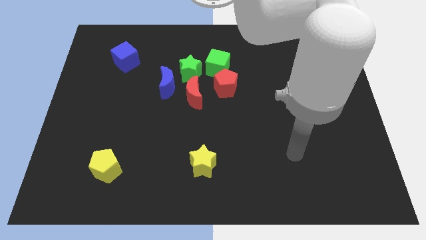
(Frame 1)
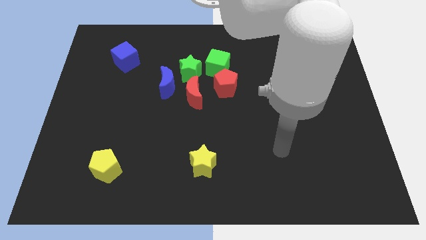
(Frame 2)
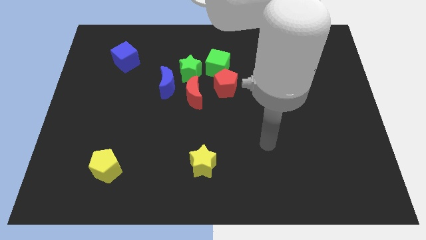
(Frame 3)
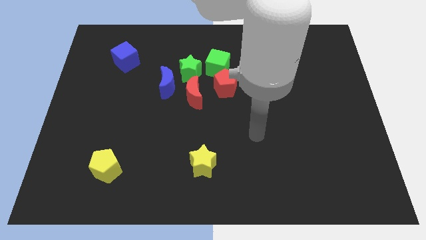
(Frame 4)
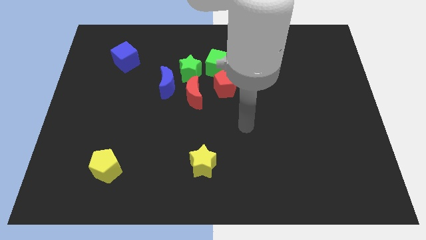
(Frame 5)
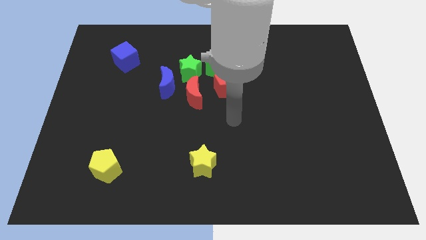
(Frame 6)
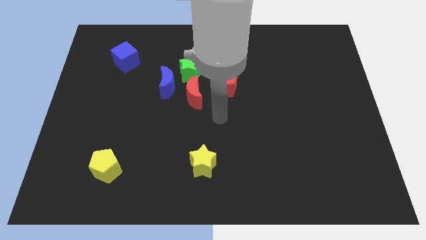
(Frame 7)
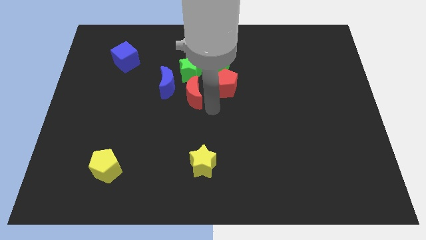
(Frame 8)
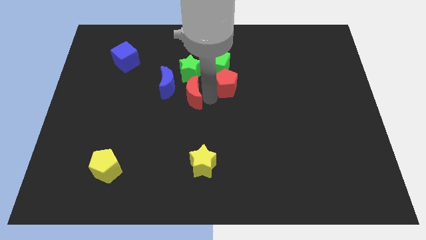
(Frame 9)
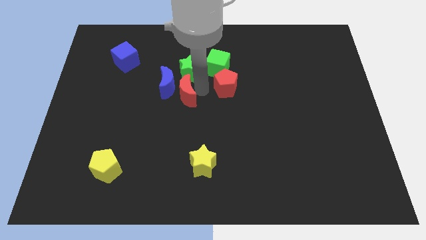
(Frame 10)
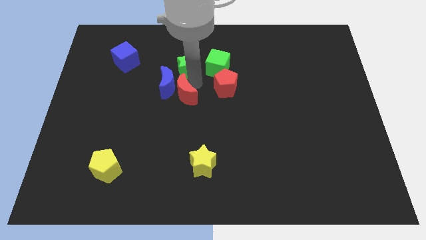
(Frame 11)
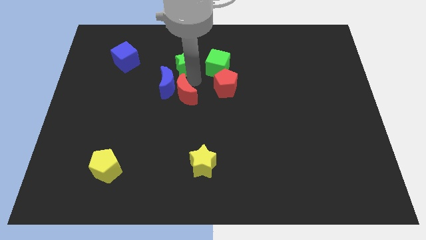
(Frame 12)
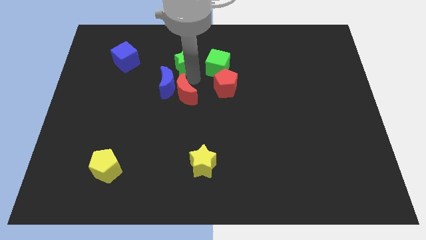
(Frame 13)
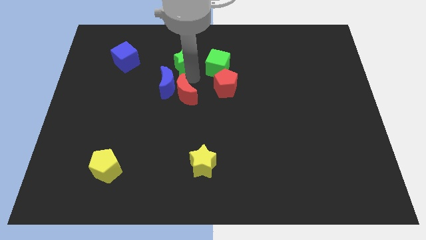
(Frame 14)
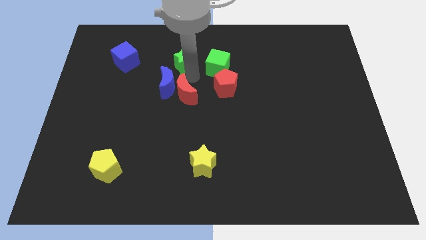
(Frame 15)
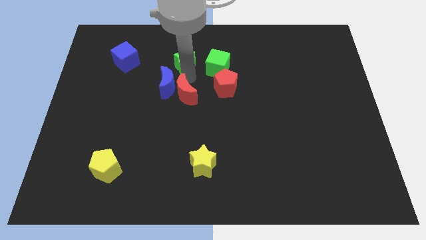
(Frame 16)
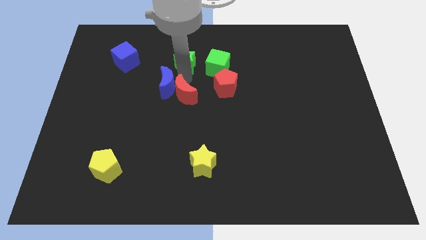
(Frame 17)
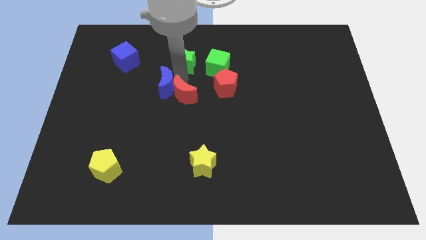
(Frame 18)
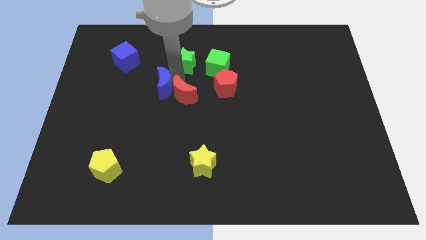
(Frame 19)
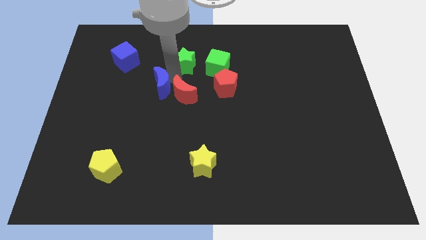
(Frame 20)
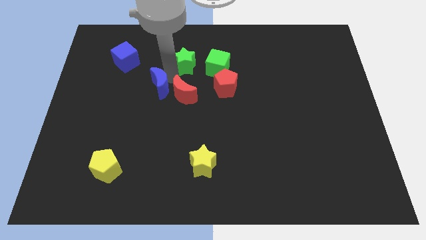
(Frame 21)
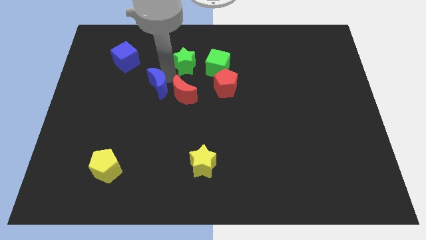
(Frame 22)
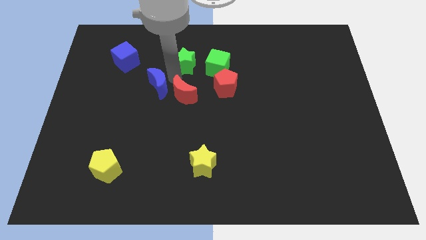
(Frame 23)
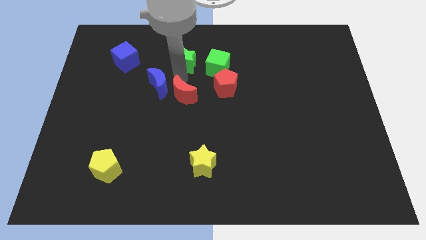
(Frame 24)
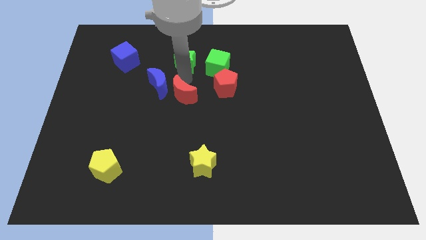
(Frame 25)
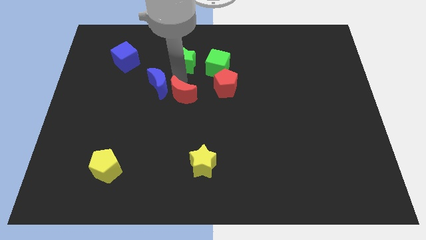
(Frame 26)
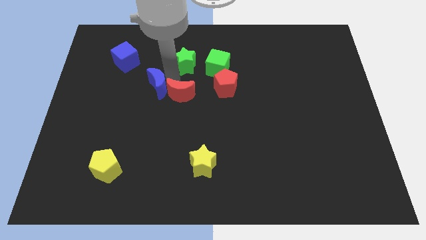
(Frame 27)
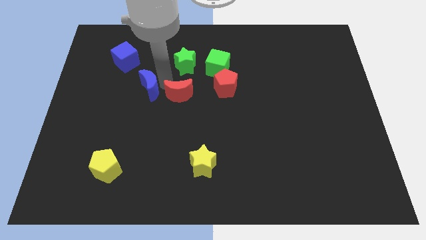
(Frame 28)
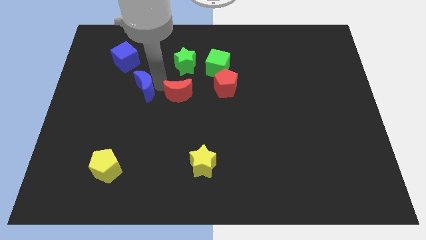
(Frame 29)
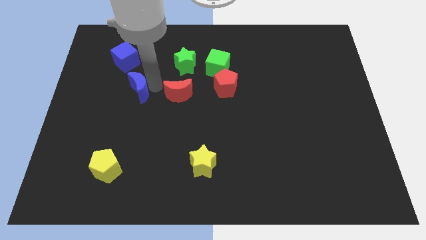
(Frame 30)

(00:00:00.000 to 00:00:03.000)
separate the blue moon from the green star and red moon

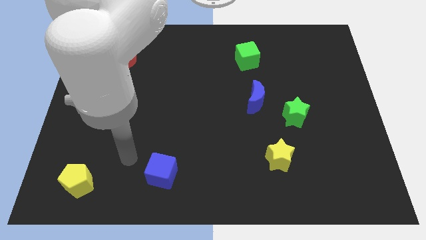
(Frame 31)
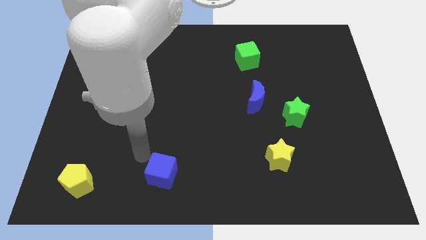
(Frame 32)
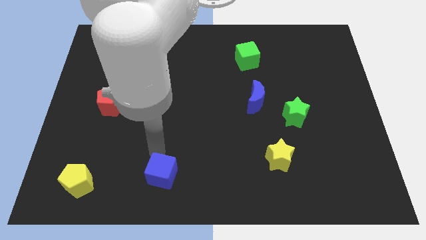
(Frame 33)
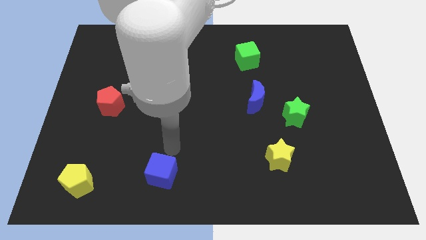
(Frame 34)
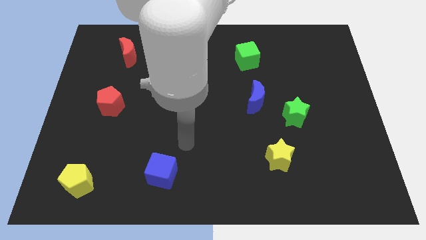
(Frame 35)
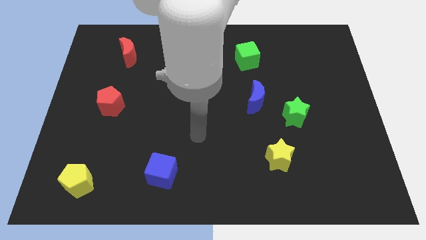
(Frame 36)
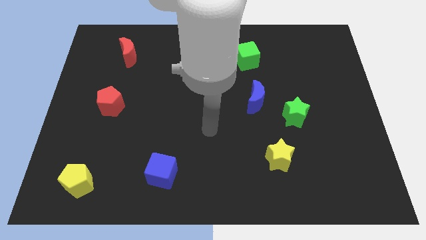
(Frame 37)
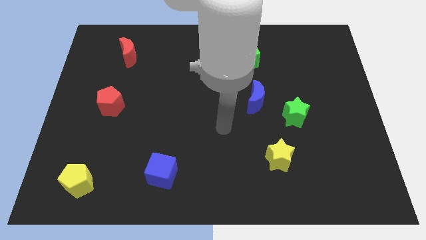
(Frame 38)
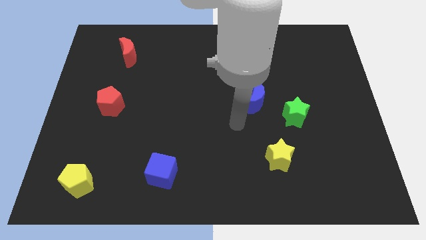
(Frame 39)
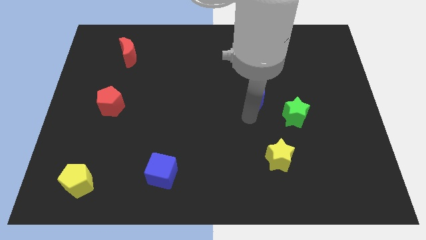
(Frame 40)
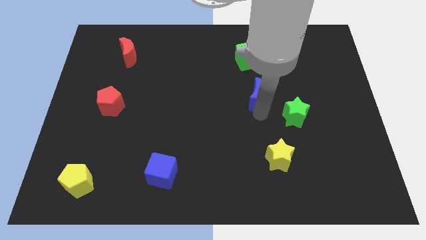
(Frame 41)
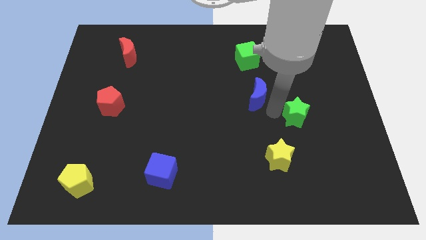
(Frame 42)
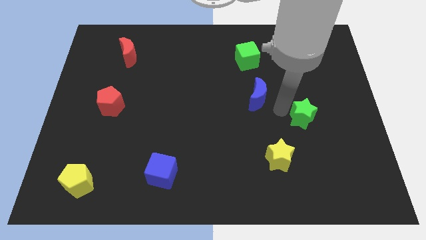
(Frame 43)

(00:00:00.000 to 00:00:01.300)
move the blue moon away from the green star

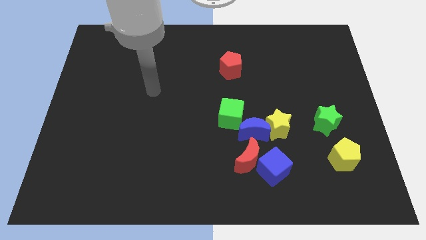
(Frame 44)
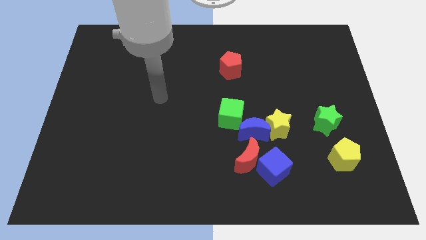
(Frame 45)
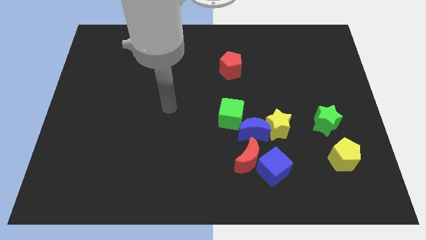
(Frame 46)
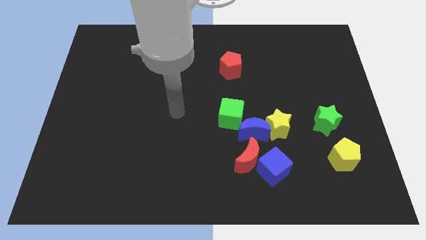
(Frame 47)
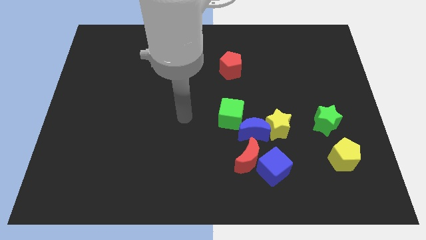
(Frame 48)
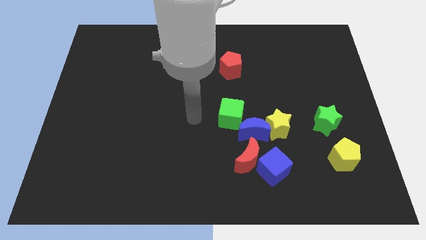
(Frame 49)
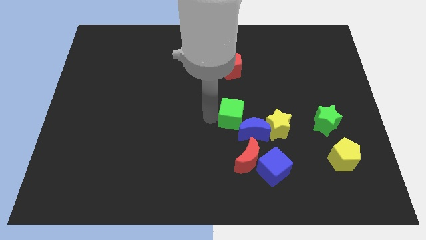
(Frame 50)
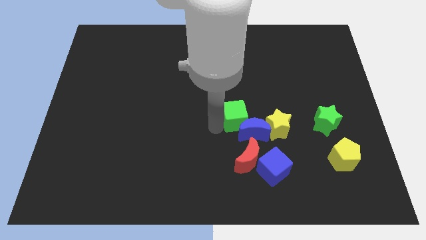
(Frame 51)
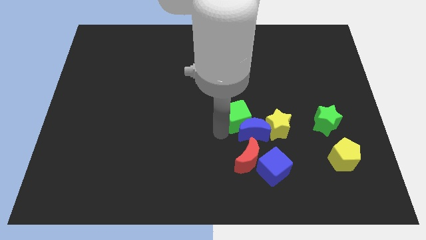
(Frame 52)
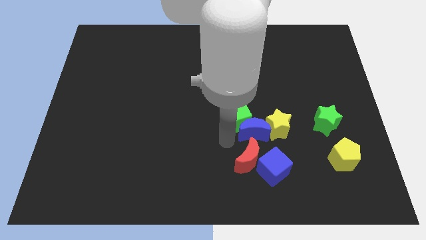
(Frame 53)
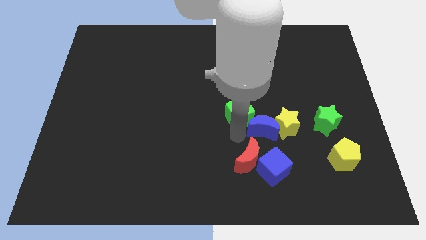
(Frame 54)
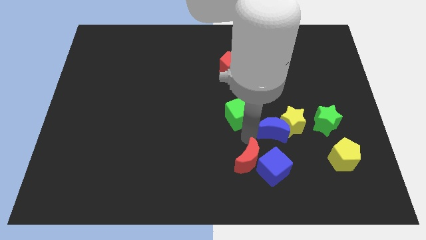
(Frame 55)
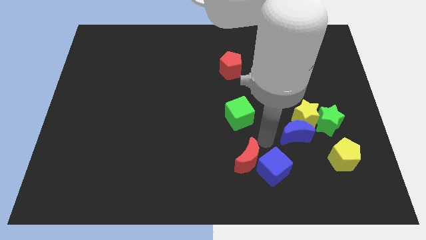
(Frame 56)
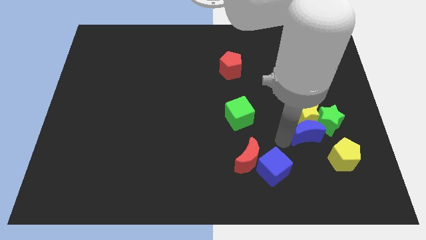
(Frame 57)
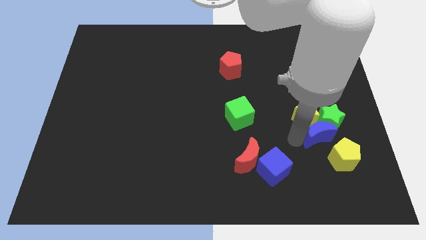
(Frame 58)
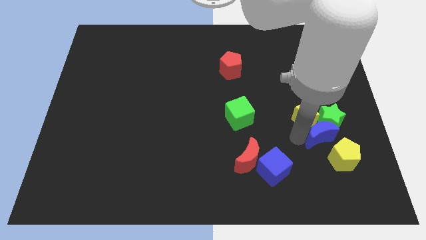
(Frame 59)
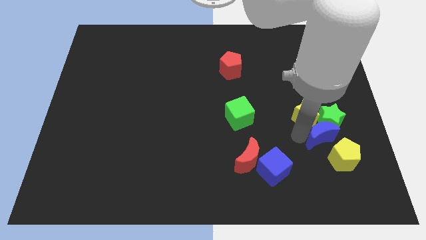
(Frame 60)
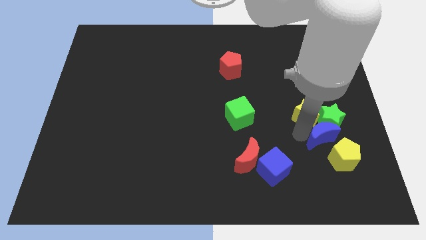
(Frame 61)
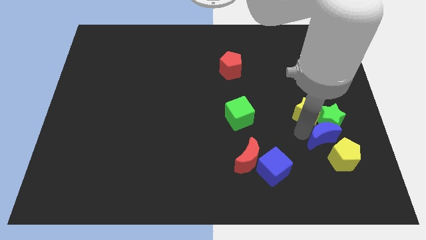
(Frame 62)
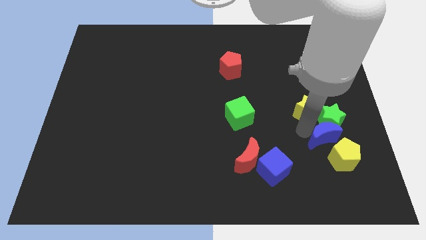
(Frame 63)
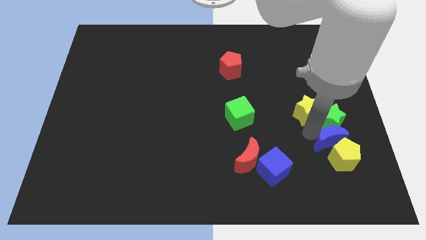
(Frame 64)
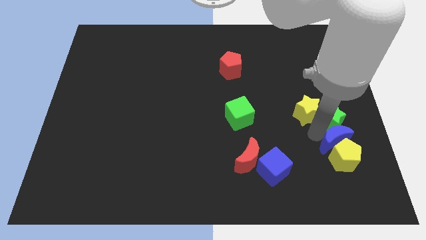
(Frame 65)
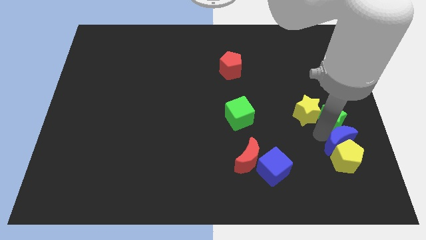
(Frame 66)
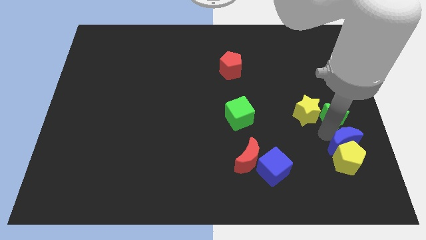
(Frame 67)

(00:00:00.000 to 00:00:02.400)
pull the yellow star apart from the blue moon

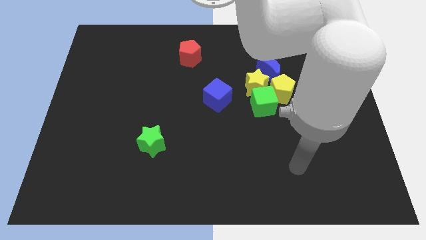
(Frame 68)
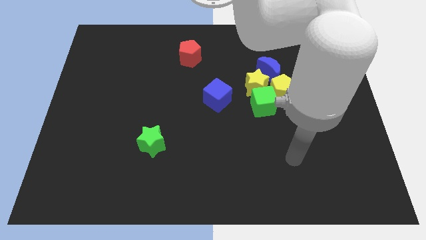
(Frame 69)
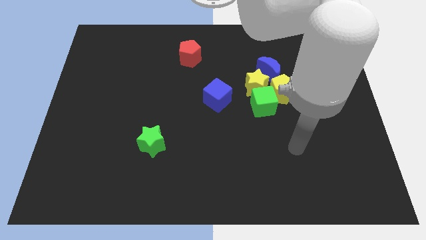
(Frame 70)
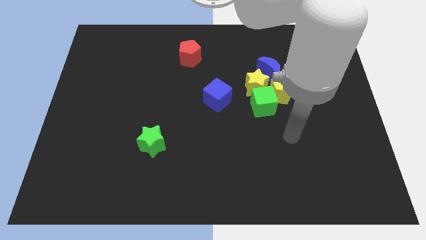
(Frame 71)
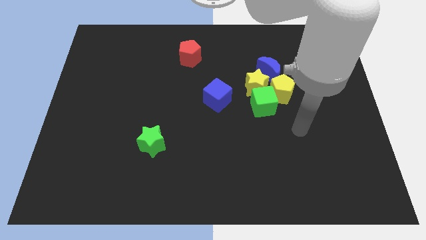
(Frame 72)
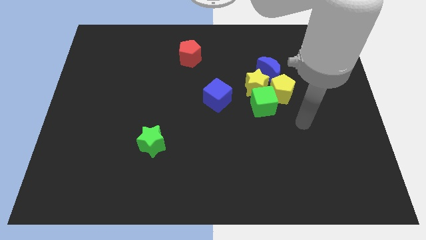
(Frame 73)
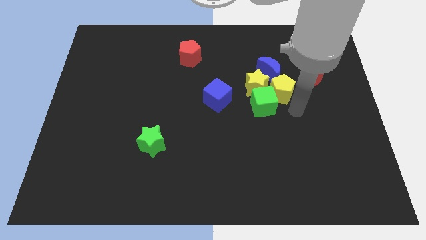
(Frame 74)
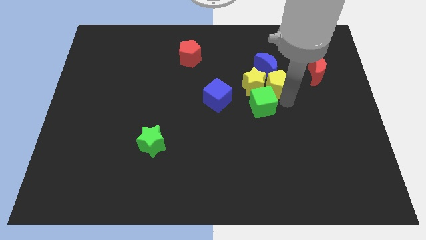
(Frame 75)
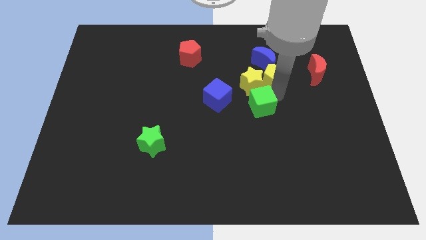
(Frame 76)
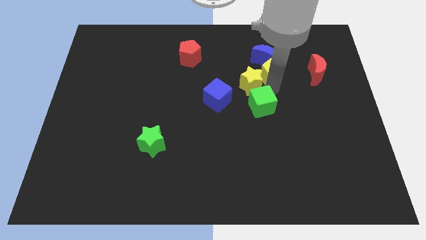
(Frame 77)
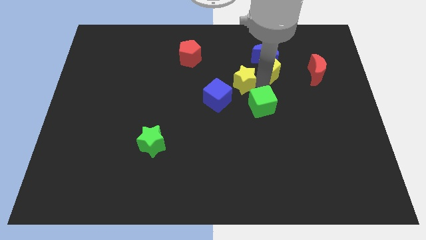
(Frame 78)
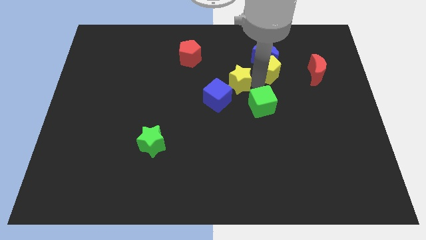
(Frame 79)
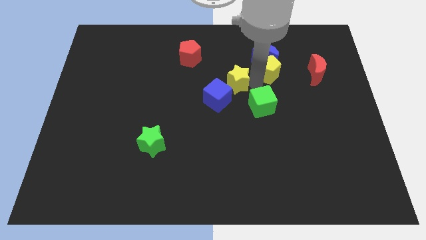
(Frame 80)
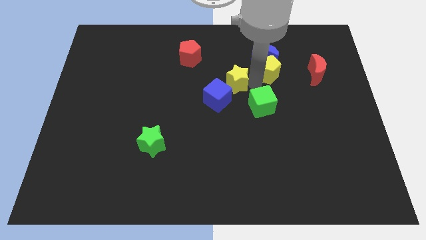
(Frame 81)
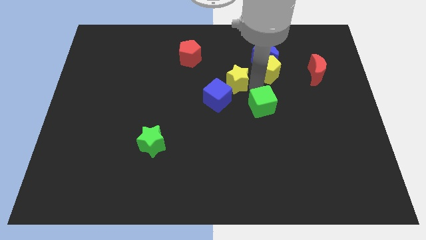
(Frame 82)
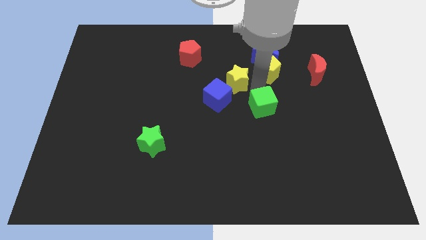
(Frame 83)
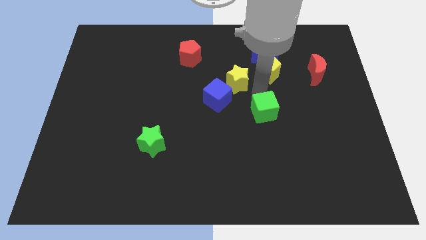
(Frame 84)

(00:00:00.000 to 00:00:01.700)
move the green cube away from the yellow star and yellow pentagon

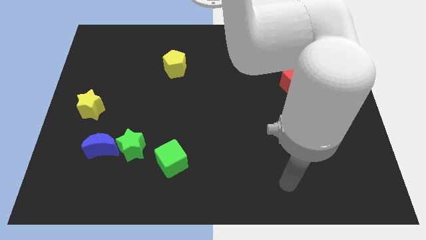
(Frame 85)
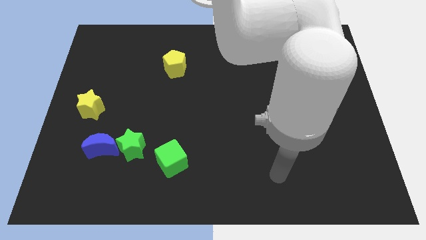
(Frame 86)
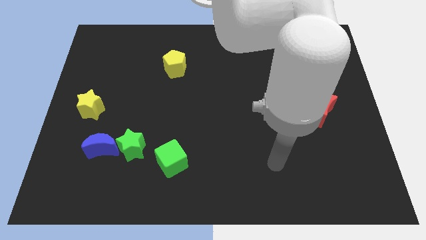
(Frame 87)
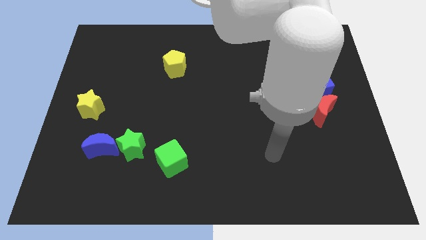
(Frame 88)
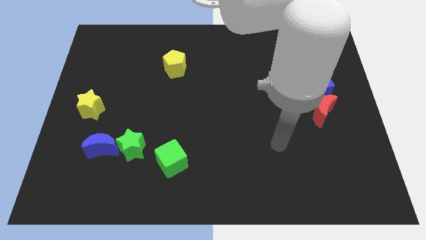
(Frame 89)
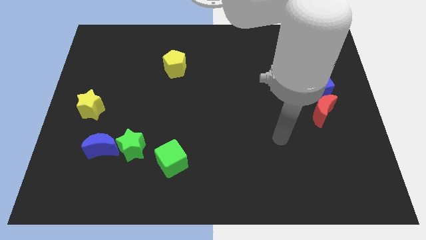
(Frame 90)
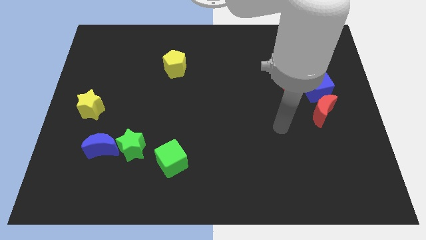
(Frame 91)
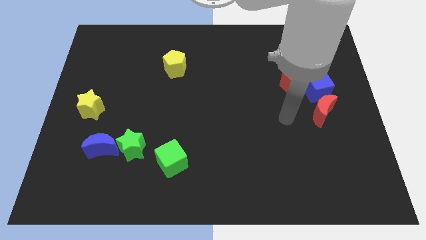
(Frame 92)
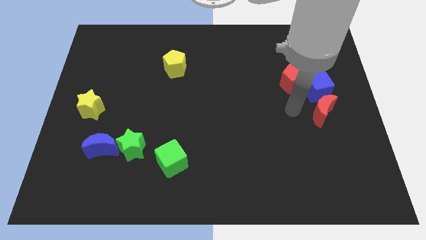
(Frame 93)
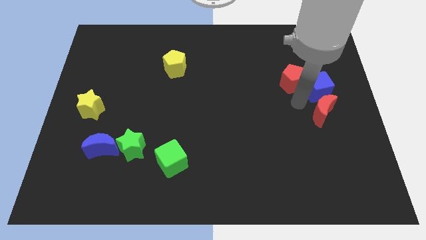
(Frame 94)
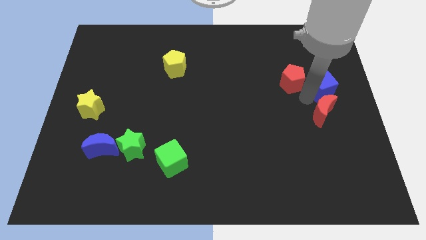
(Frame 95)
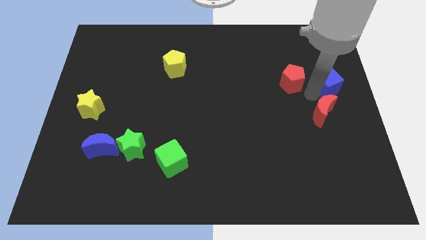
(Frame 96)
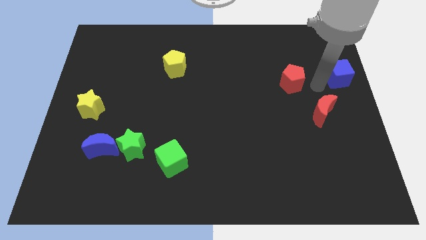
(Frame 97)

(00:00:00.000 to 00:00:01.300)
separate the red pentagon from the blue cube
